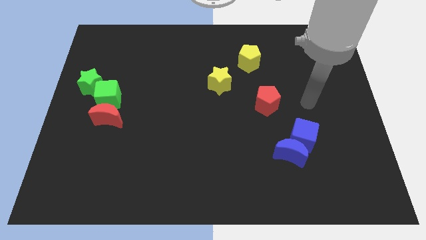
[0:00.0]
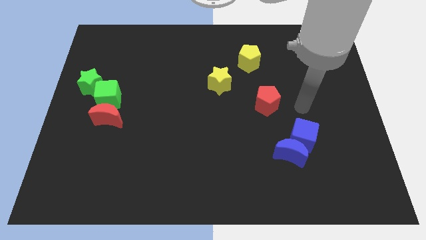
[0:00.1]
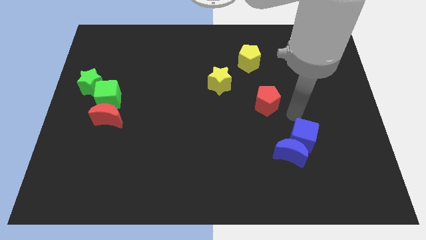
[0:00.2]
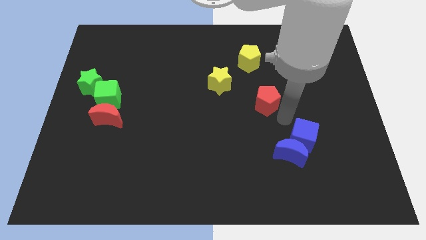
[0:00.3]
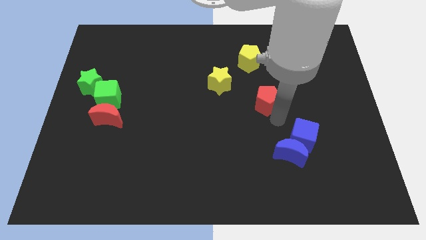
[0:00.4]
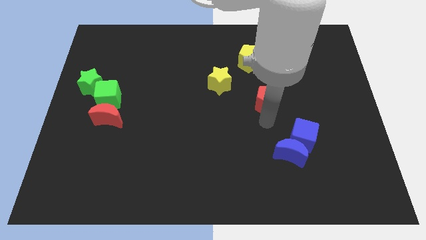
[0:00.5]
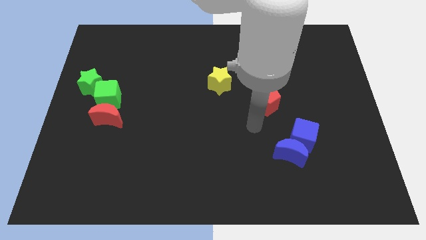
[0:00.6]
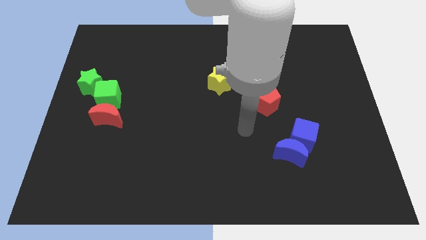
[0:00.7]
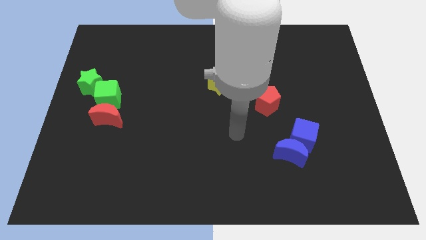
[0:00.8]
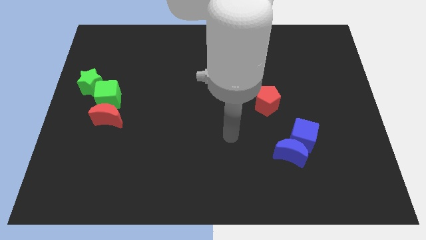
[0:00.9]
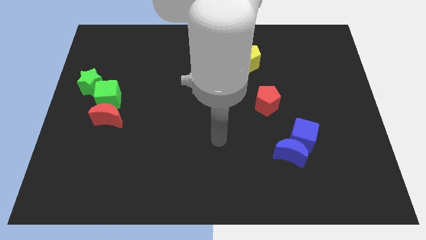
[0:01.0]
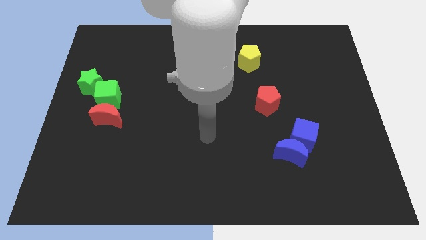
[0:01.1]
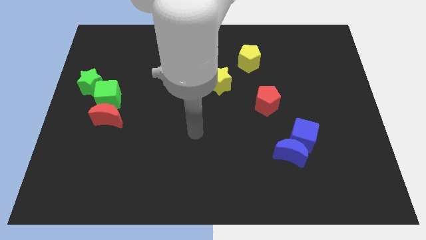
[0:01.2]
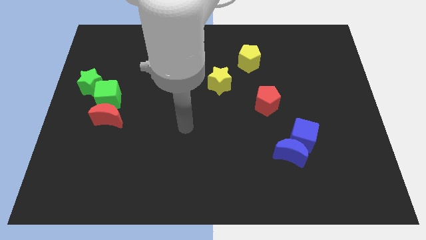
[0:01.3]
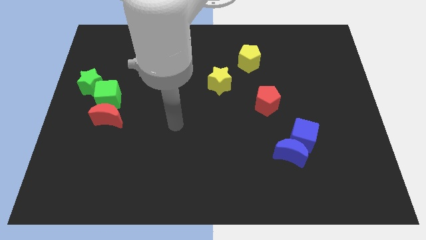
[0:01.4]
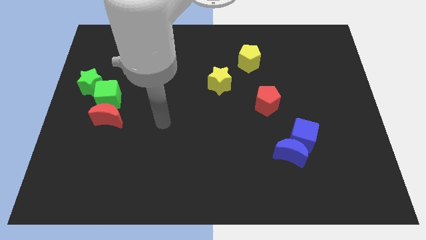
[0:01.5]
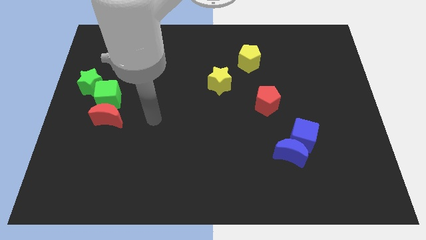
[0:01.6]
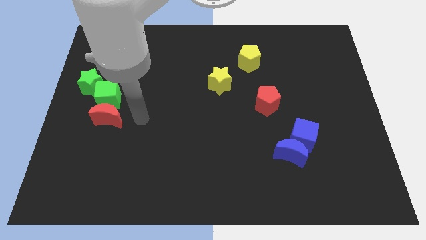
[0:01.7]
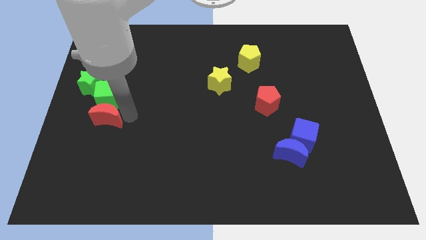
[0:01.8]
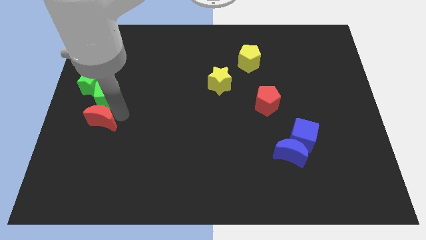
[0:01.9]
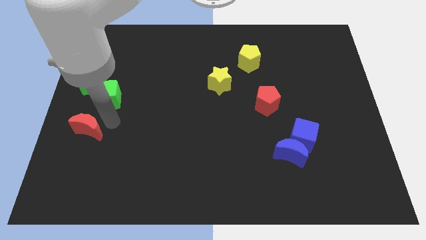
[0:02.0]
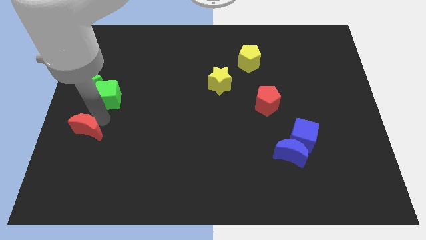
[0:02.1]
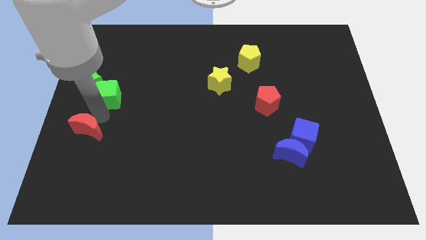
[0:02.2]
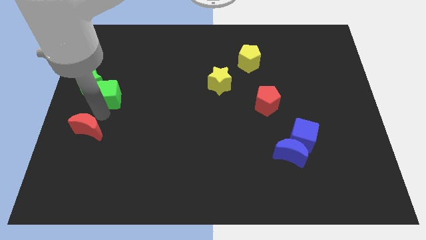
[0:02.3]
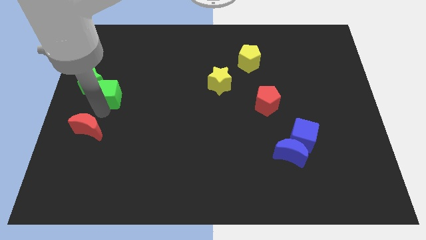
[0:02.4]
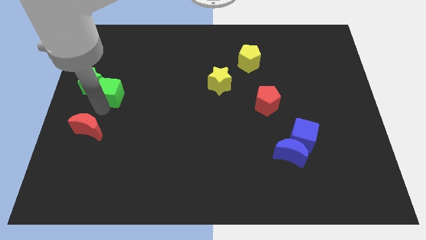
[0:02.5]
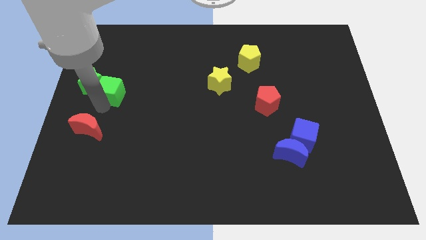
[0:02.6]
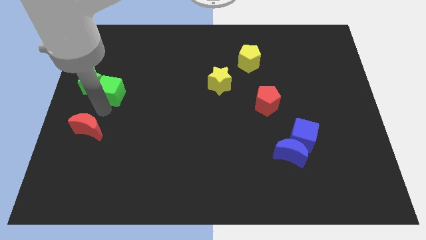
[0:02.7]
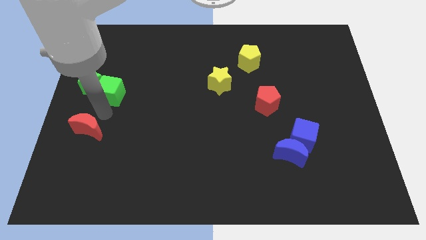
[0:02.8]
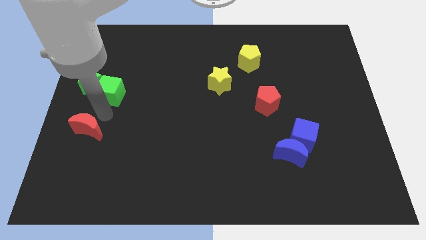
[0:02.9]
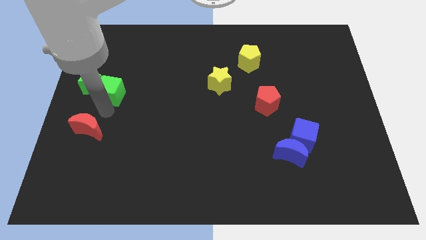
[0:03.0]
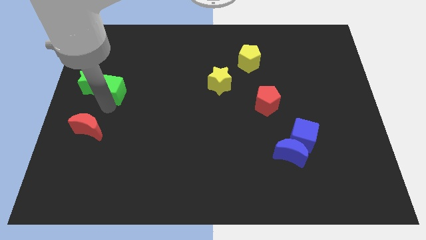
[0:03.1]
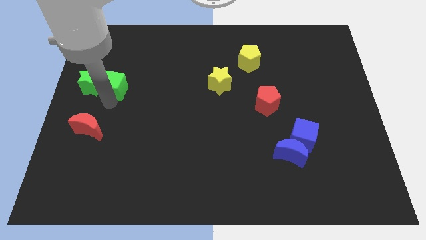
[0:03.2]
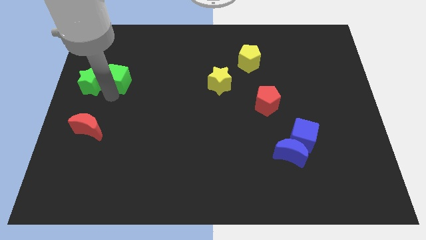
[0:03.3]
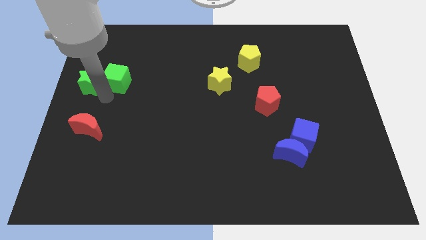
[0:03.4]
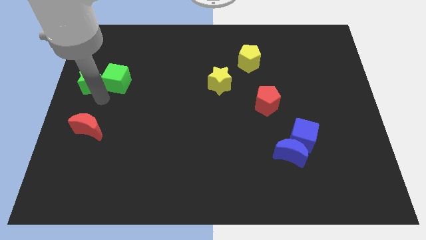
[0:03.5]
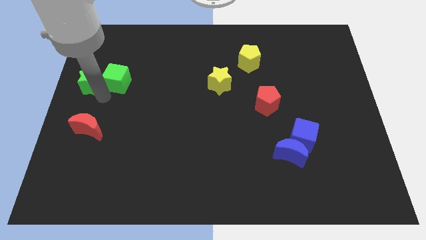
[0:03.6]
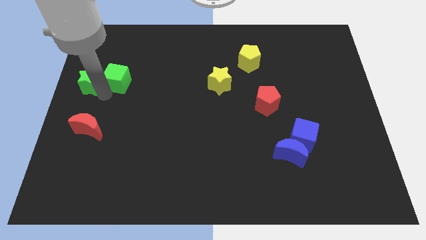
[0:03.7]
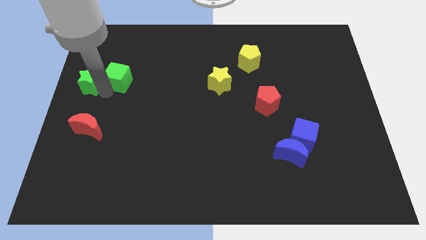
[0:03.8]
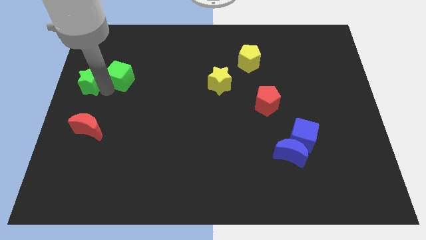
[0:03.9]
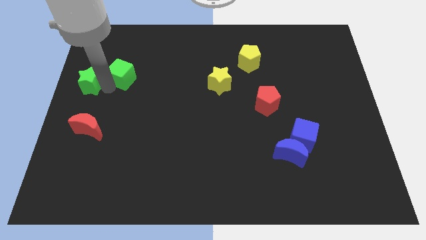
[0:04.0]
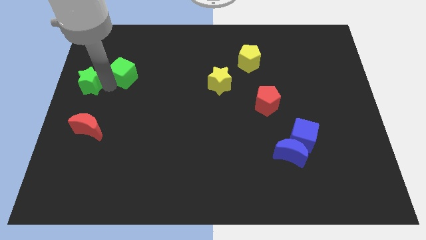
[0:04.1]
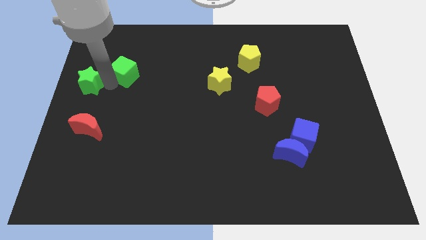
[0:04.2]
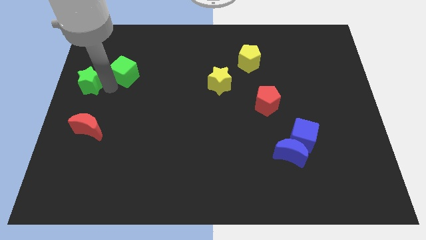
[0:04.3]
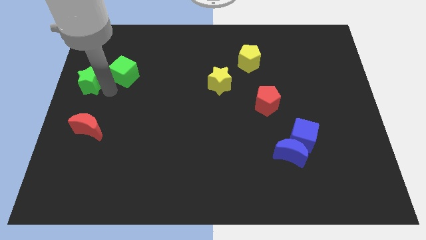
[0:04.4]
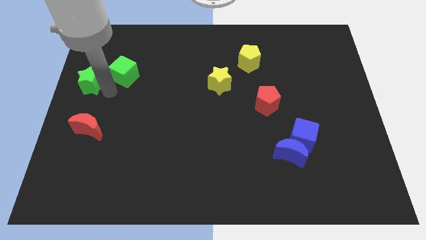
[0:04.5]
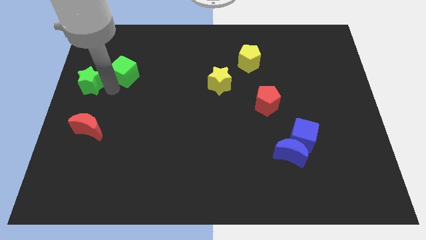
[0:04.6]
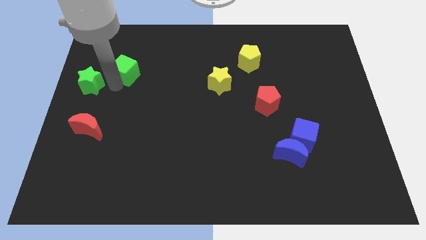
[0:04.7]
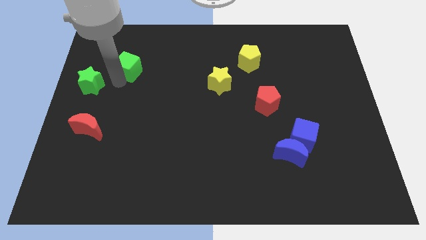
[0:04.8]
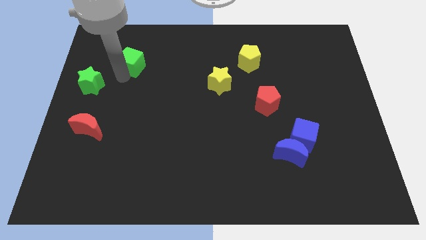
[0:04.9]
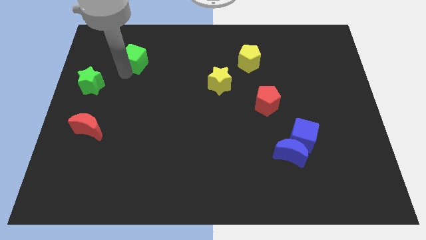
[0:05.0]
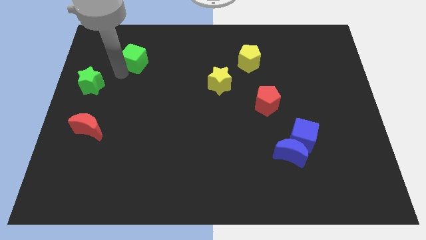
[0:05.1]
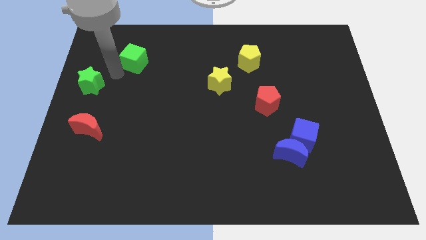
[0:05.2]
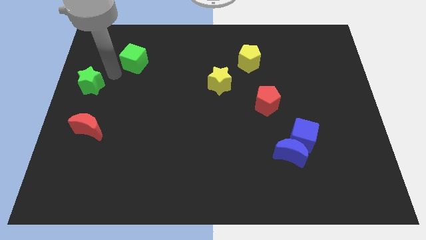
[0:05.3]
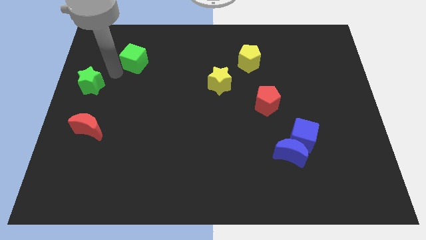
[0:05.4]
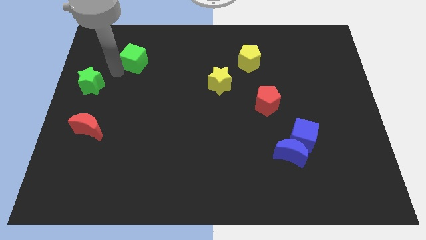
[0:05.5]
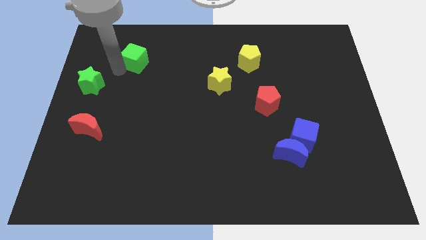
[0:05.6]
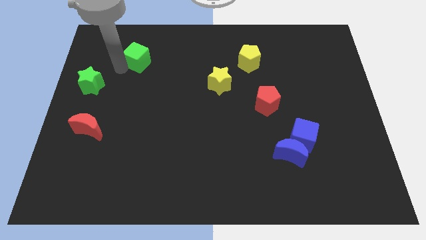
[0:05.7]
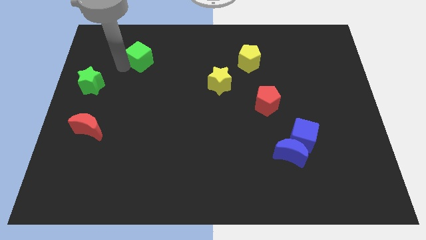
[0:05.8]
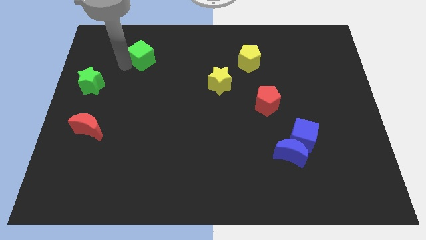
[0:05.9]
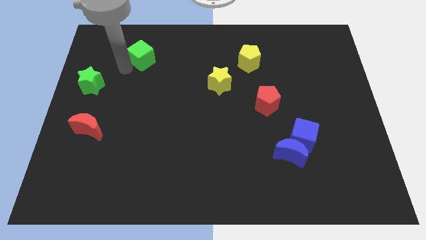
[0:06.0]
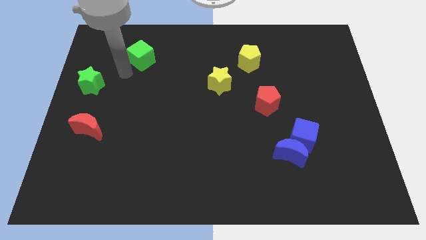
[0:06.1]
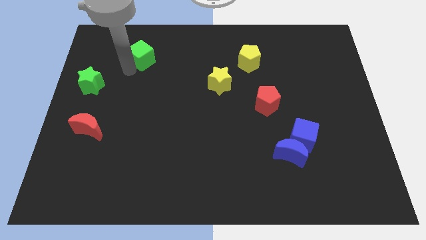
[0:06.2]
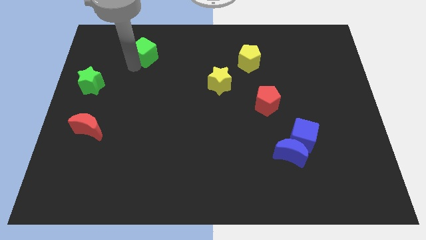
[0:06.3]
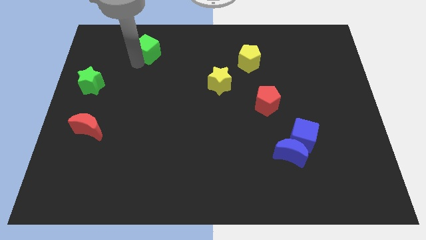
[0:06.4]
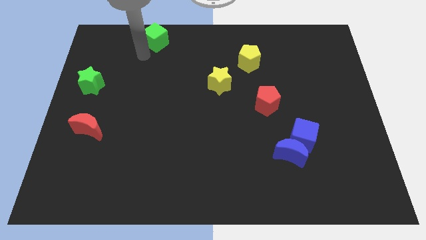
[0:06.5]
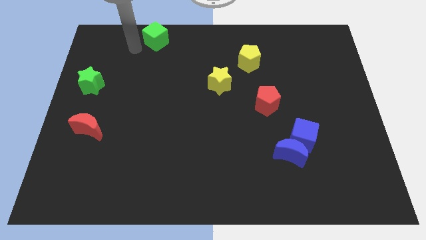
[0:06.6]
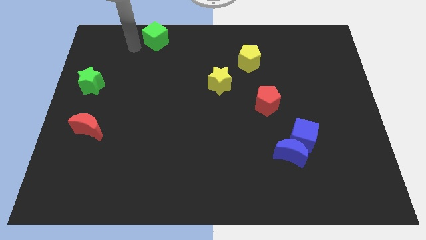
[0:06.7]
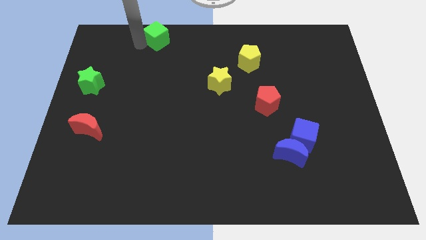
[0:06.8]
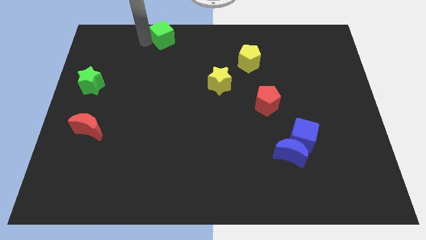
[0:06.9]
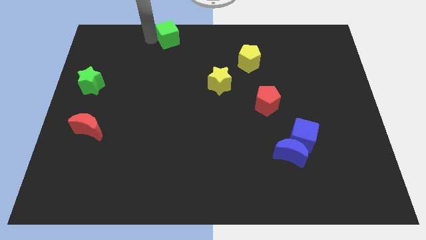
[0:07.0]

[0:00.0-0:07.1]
push the green cube to the top
